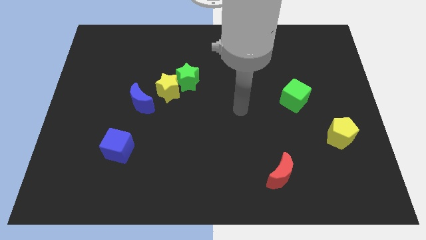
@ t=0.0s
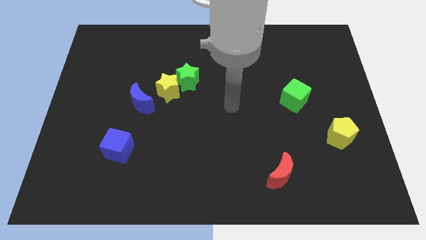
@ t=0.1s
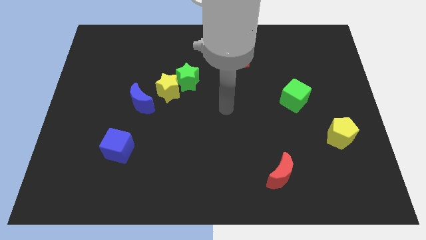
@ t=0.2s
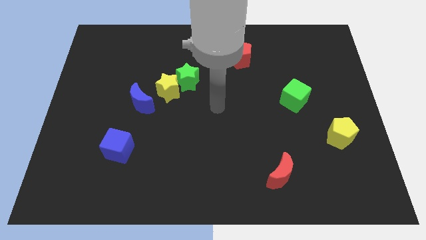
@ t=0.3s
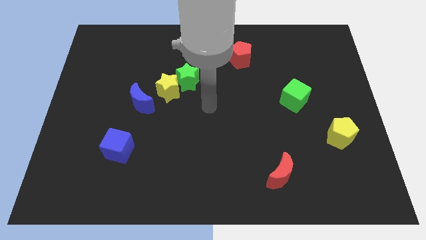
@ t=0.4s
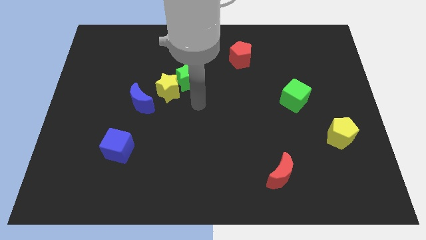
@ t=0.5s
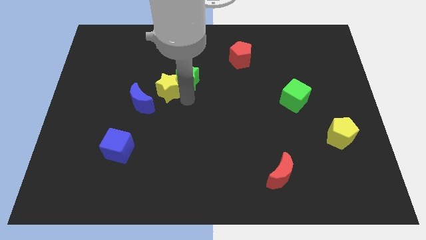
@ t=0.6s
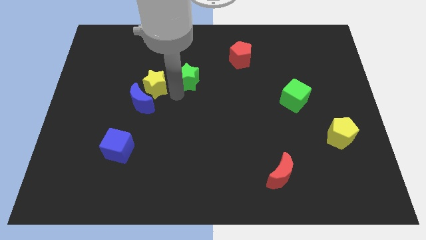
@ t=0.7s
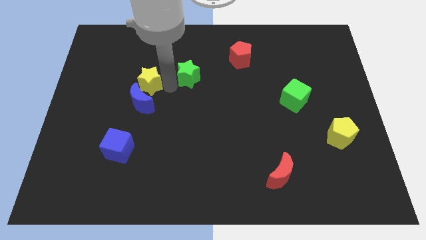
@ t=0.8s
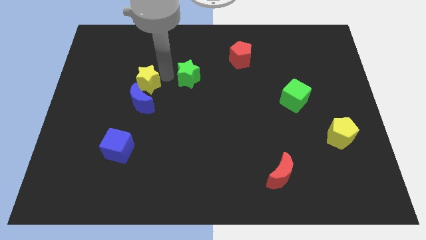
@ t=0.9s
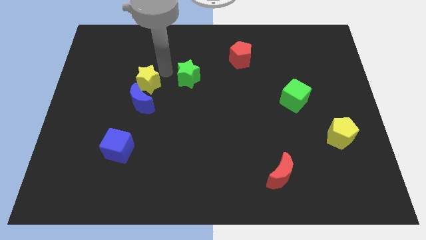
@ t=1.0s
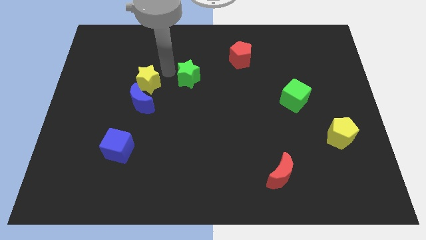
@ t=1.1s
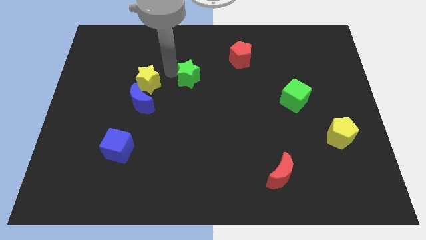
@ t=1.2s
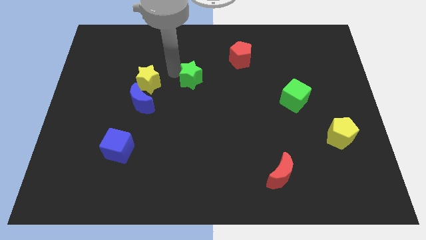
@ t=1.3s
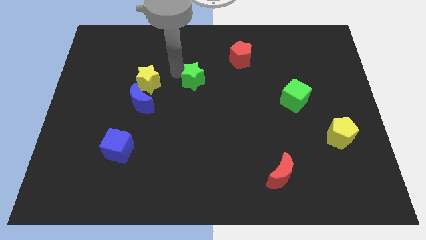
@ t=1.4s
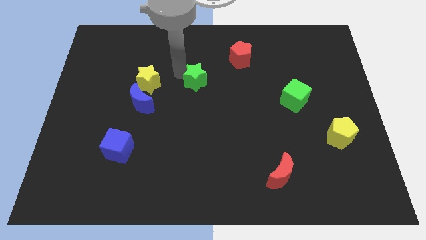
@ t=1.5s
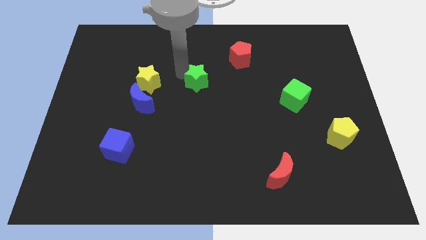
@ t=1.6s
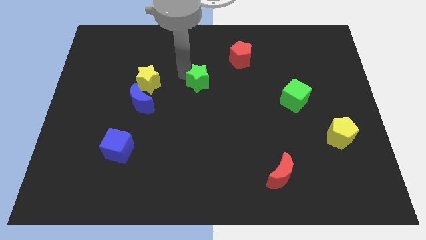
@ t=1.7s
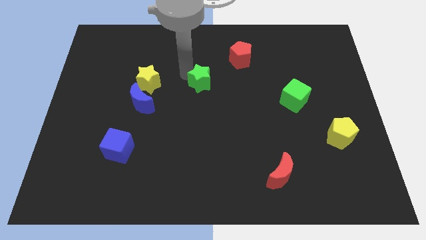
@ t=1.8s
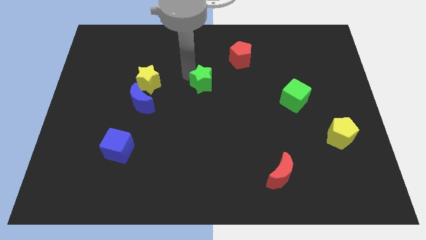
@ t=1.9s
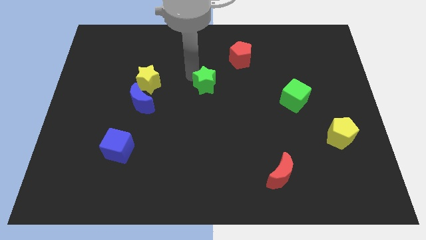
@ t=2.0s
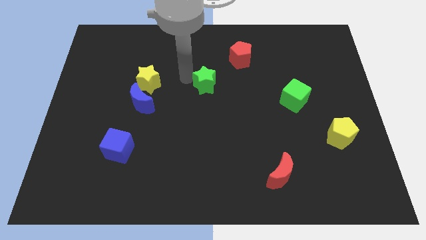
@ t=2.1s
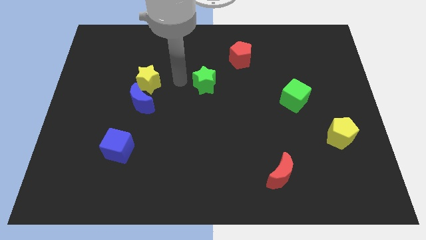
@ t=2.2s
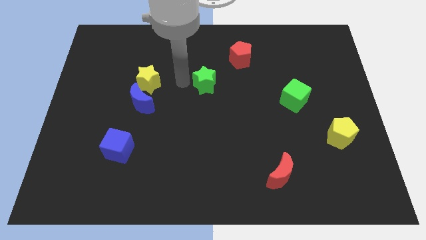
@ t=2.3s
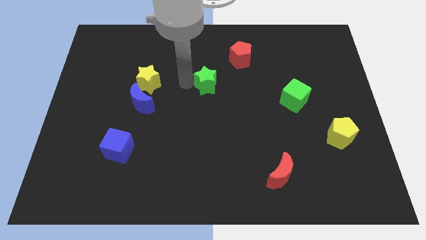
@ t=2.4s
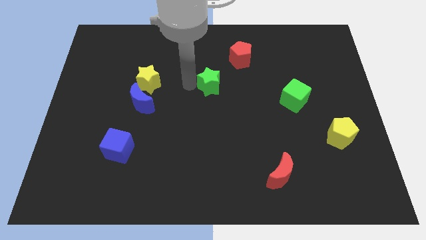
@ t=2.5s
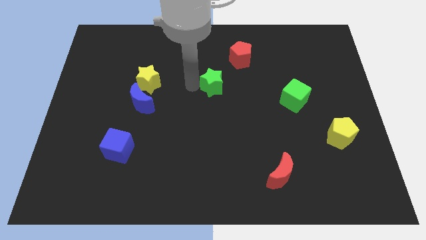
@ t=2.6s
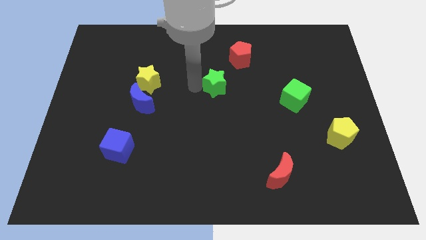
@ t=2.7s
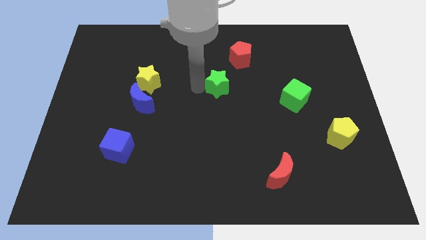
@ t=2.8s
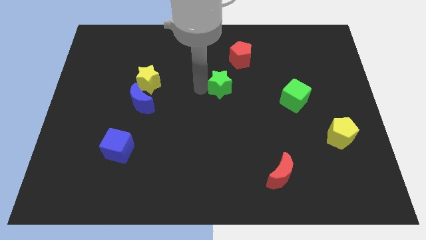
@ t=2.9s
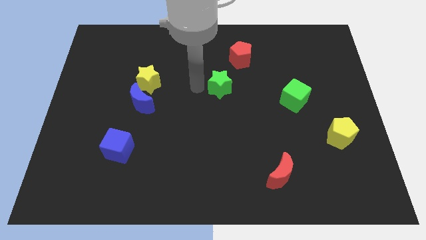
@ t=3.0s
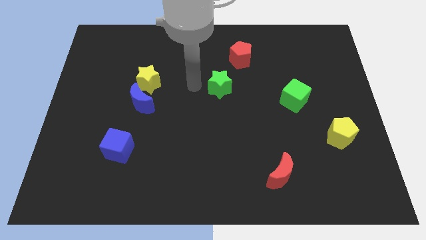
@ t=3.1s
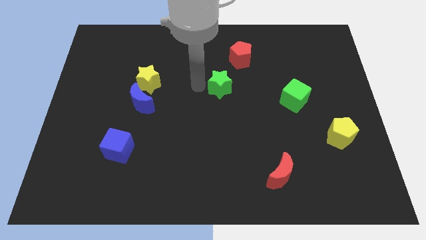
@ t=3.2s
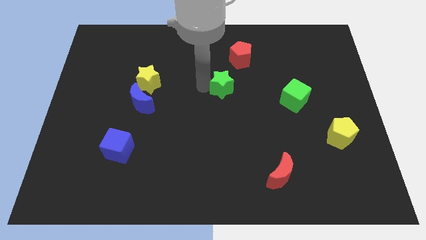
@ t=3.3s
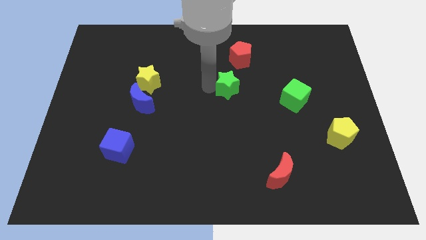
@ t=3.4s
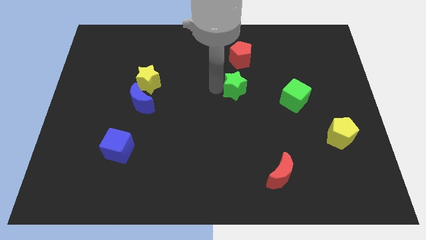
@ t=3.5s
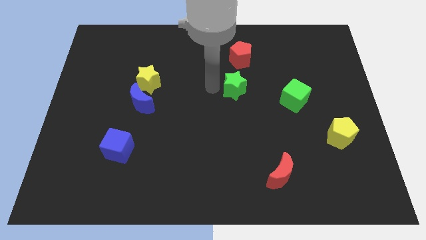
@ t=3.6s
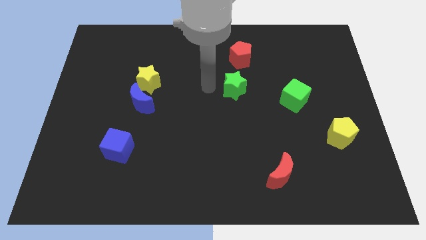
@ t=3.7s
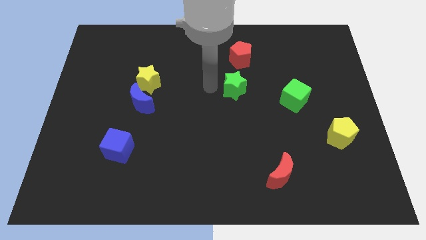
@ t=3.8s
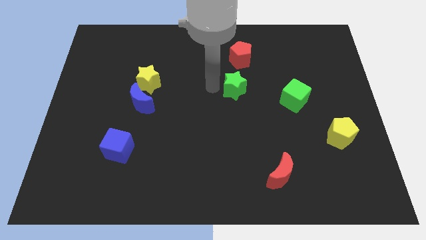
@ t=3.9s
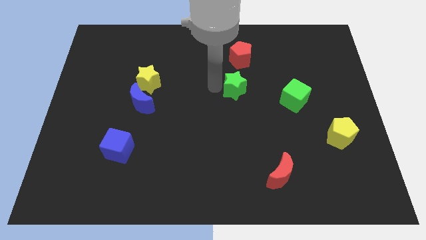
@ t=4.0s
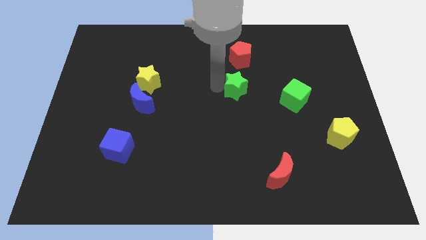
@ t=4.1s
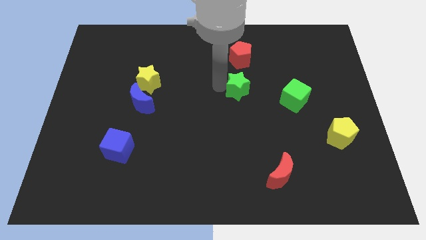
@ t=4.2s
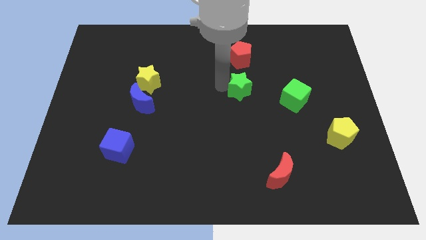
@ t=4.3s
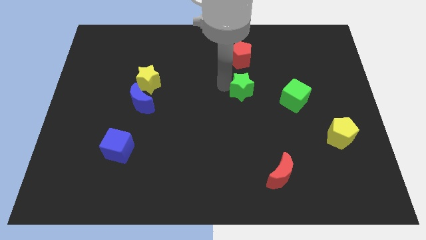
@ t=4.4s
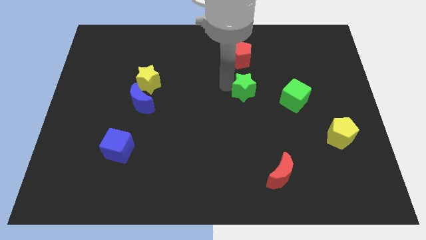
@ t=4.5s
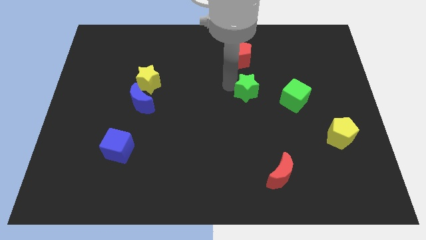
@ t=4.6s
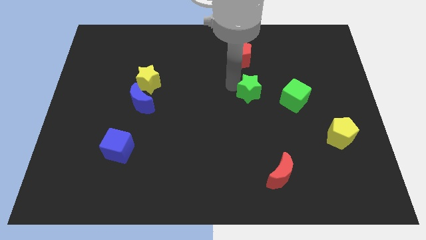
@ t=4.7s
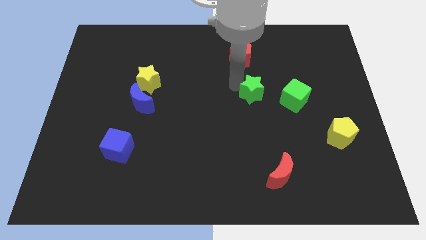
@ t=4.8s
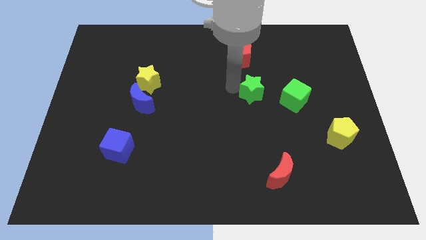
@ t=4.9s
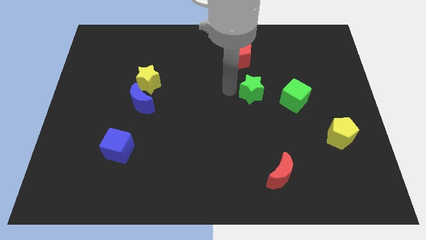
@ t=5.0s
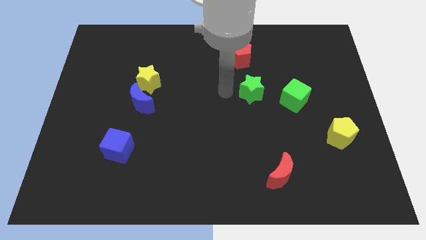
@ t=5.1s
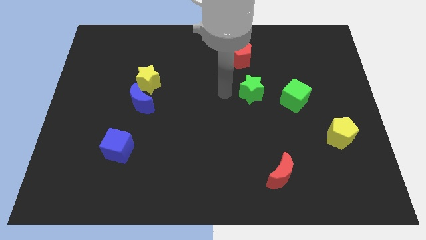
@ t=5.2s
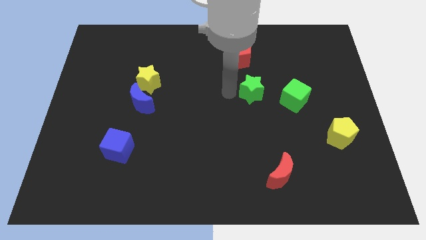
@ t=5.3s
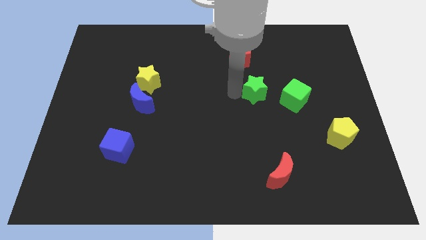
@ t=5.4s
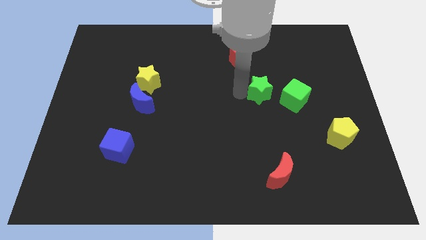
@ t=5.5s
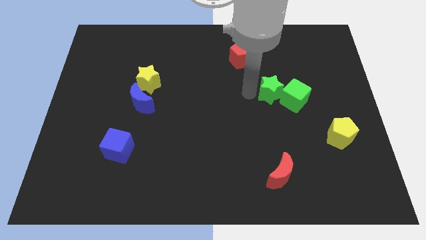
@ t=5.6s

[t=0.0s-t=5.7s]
put the green star to the green cube
